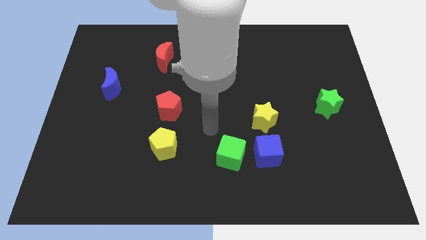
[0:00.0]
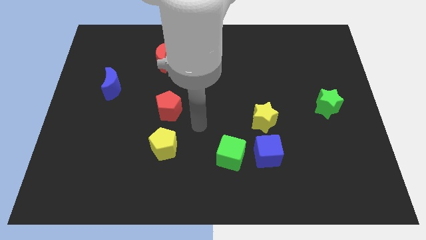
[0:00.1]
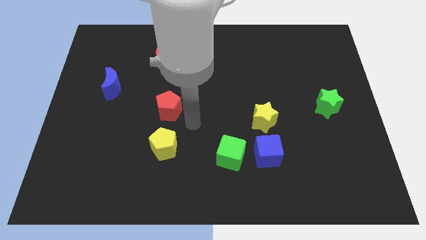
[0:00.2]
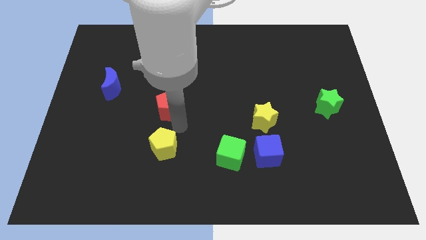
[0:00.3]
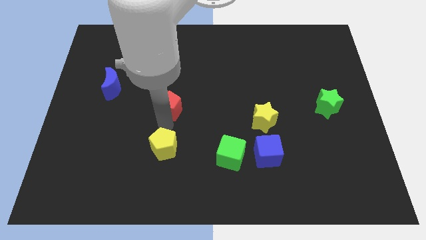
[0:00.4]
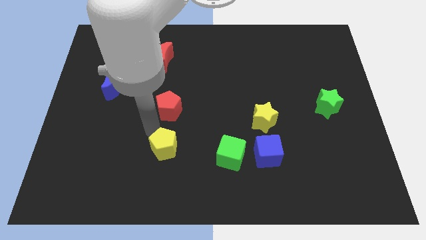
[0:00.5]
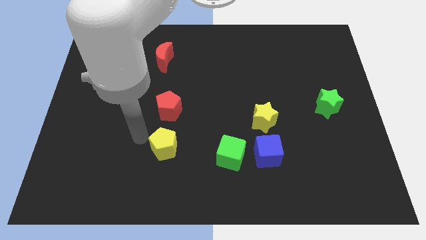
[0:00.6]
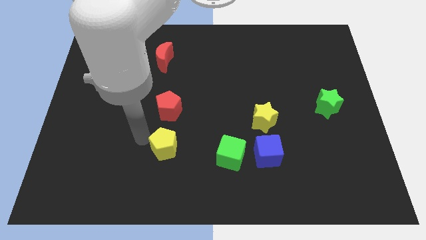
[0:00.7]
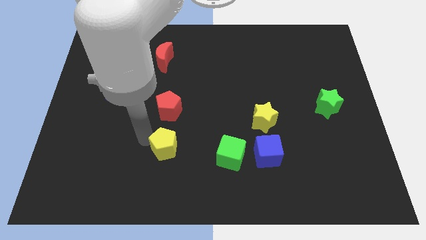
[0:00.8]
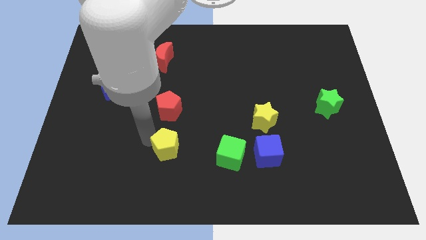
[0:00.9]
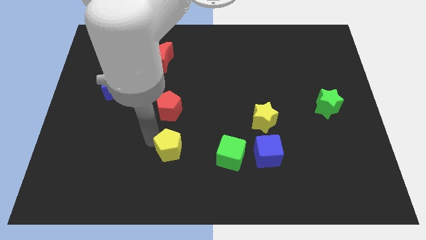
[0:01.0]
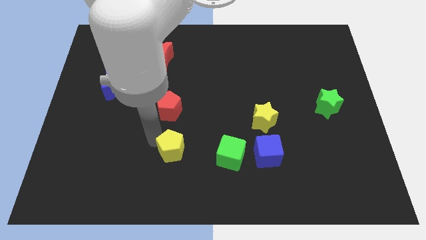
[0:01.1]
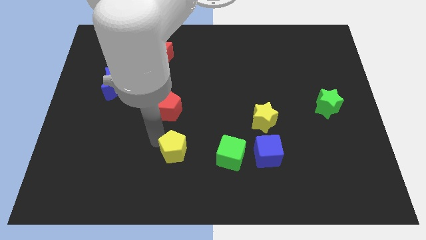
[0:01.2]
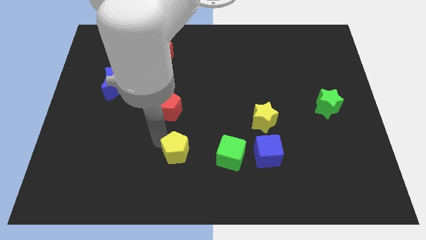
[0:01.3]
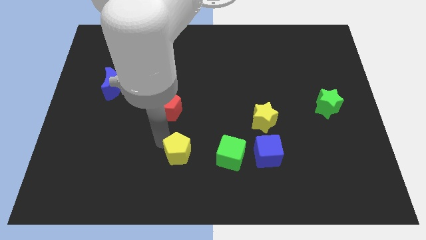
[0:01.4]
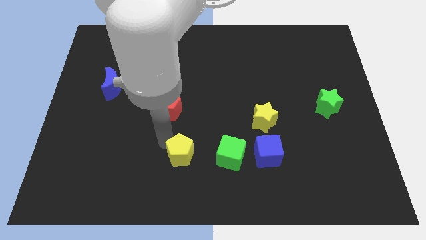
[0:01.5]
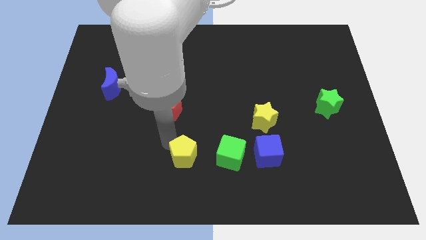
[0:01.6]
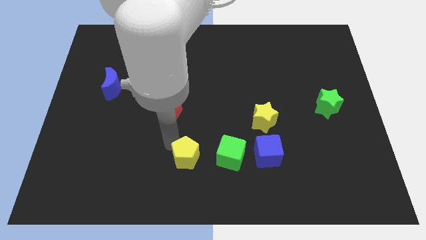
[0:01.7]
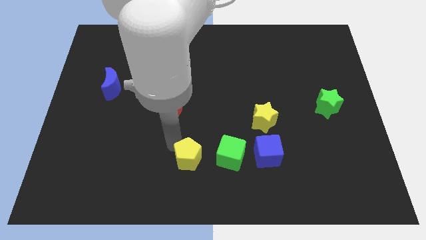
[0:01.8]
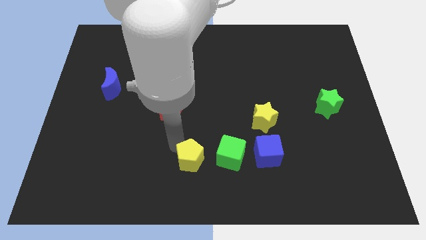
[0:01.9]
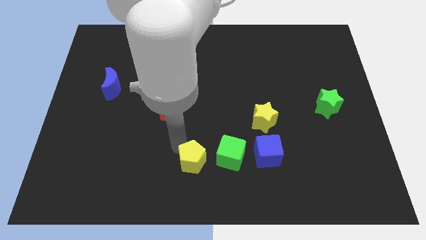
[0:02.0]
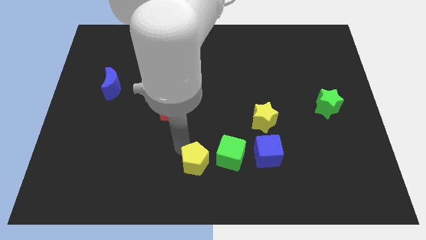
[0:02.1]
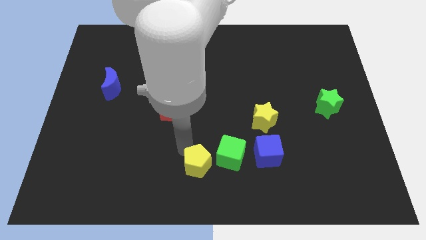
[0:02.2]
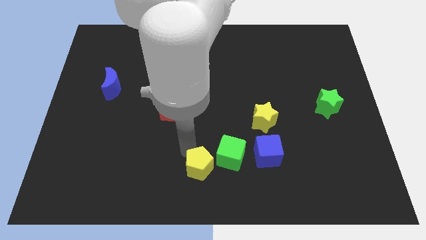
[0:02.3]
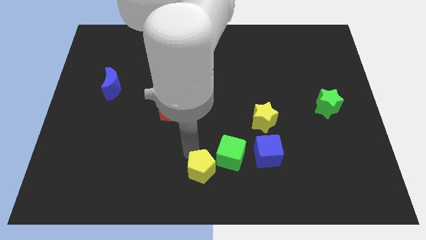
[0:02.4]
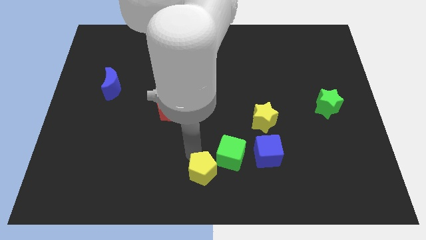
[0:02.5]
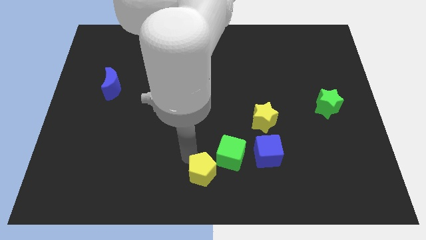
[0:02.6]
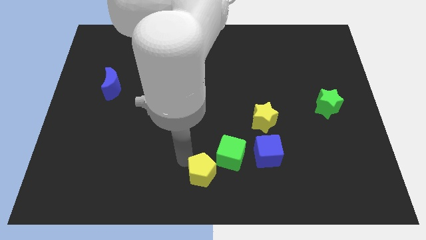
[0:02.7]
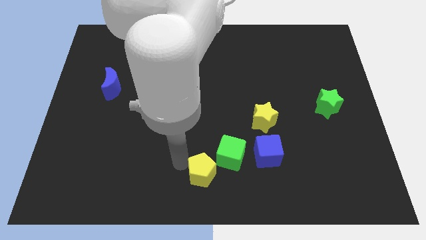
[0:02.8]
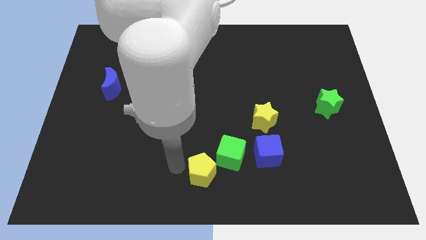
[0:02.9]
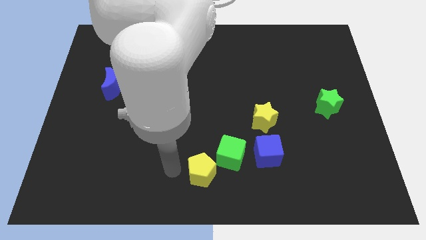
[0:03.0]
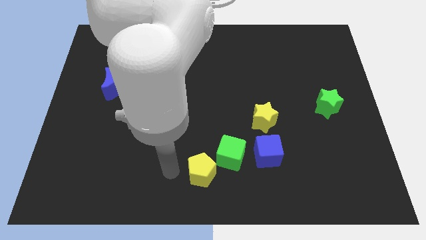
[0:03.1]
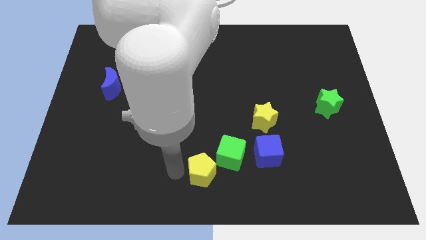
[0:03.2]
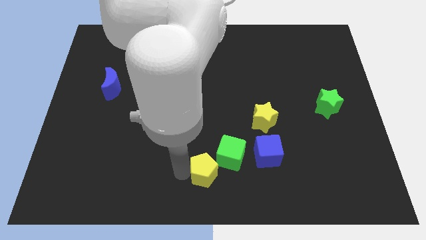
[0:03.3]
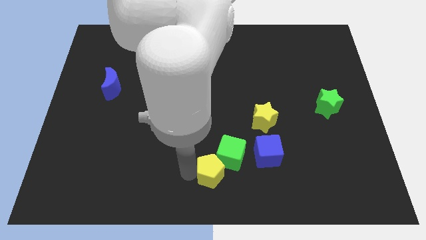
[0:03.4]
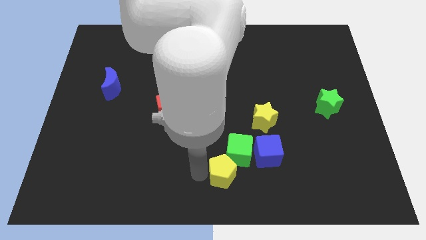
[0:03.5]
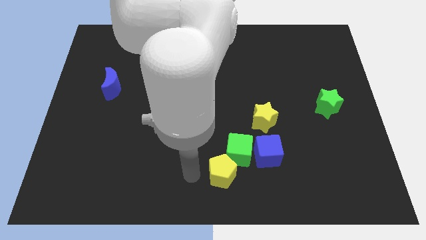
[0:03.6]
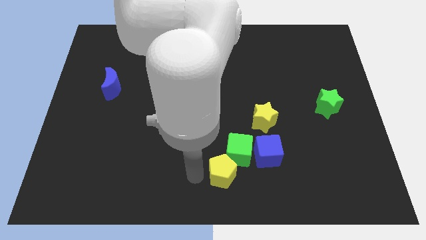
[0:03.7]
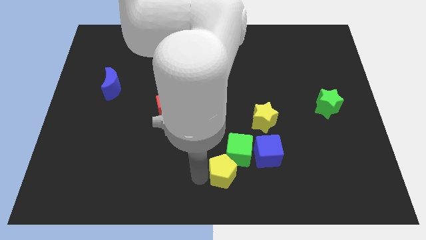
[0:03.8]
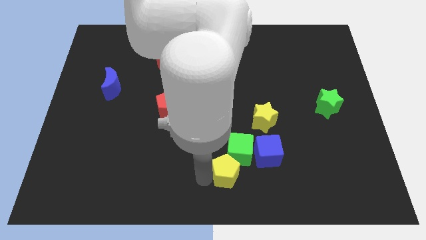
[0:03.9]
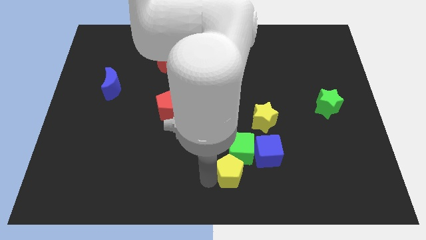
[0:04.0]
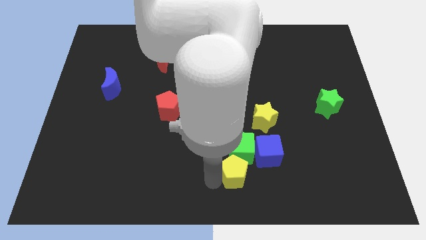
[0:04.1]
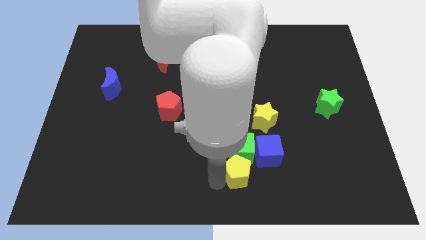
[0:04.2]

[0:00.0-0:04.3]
push the yellow pentagon diagonally down and to the right of the green cube

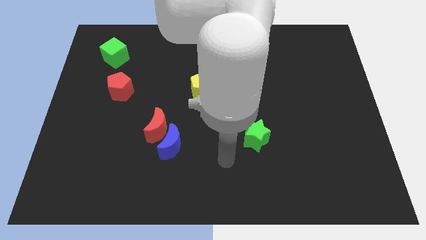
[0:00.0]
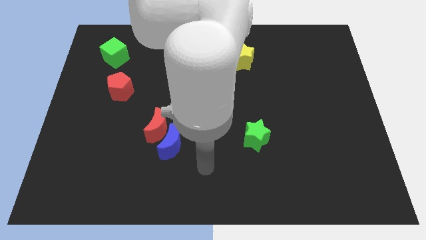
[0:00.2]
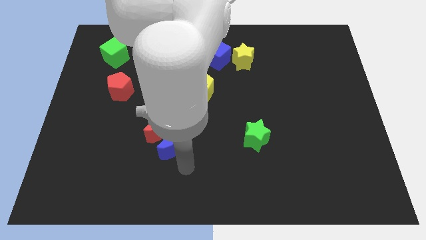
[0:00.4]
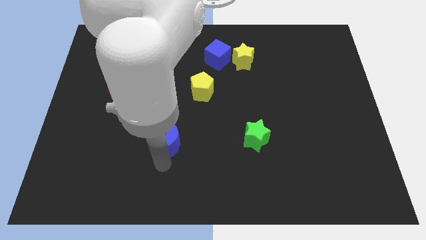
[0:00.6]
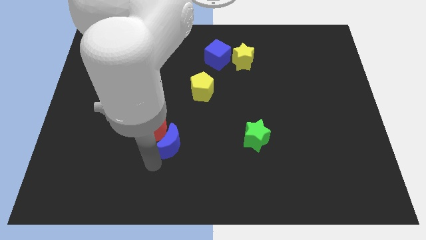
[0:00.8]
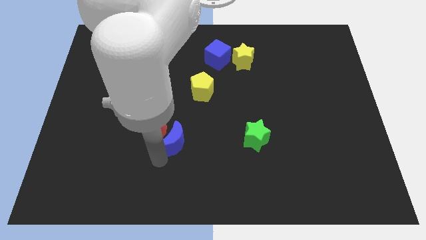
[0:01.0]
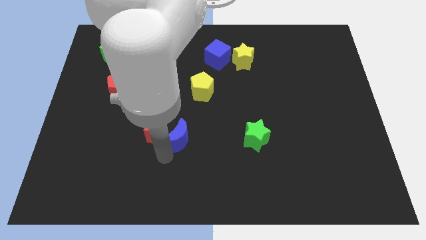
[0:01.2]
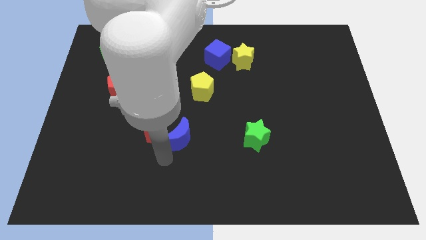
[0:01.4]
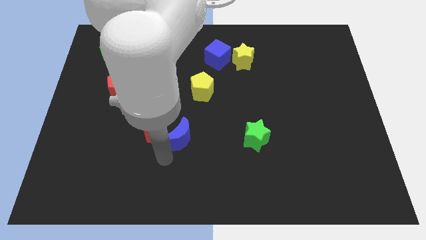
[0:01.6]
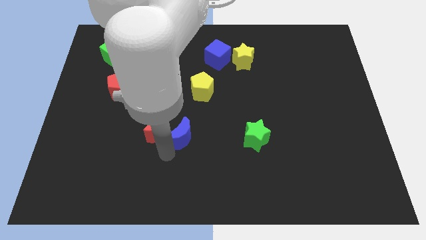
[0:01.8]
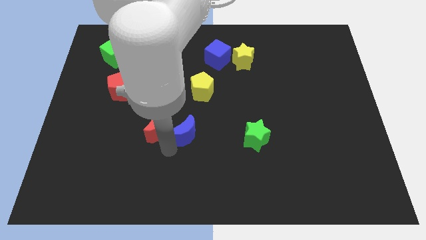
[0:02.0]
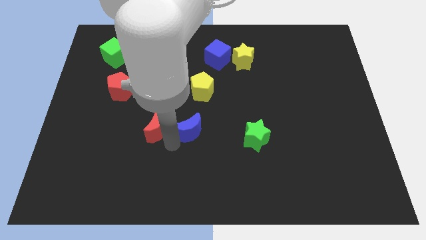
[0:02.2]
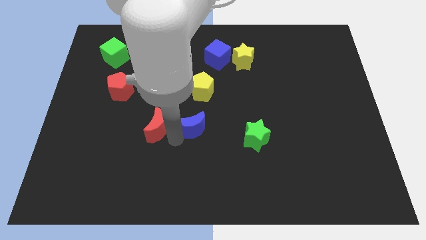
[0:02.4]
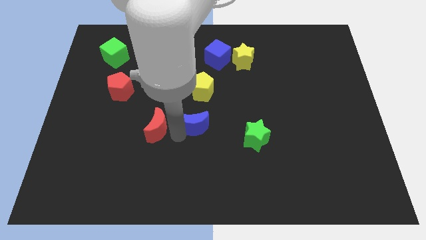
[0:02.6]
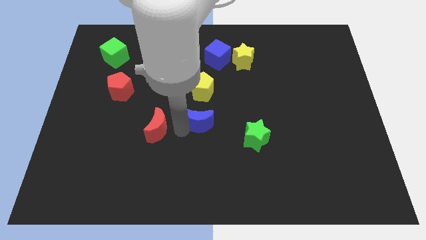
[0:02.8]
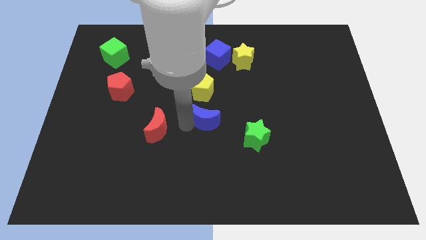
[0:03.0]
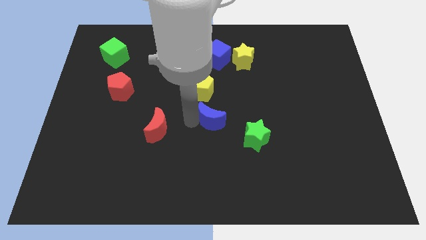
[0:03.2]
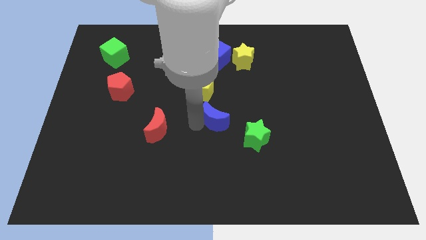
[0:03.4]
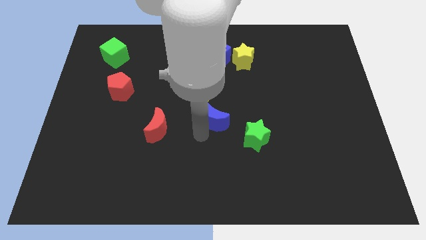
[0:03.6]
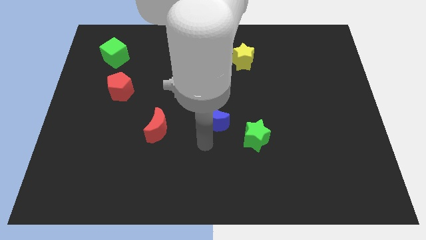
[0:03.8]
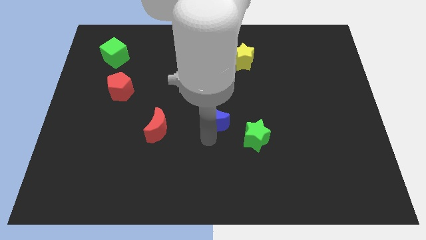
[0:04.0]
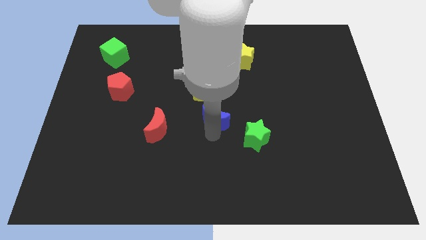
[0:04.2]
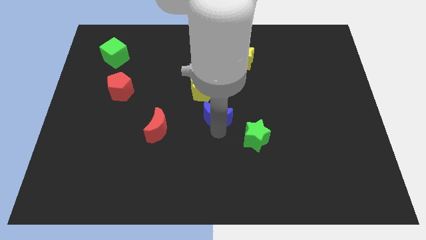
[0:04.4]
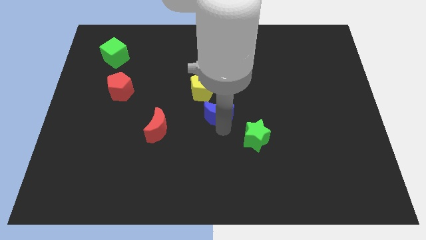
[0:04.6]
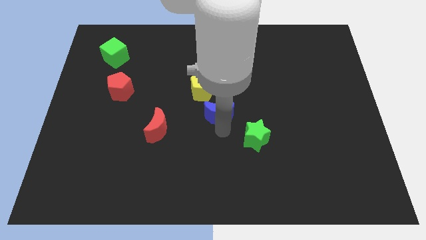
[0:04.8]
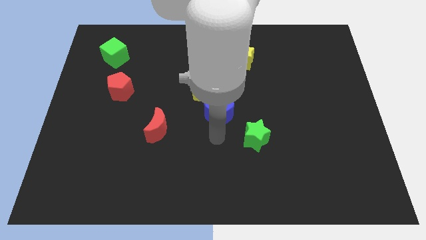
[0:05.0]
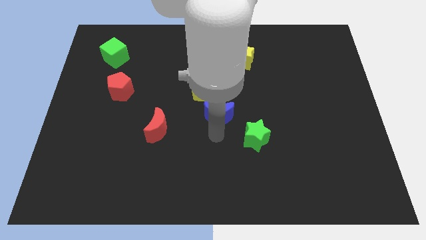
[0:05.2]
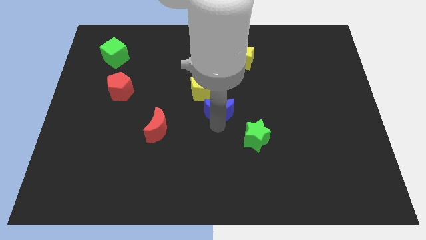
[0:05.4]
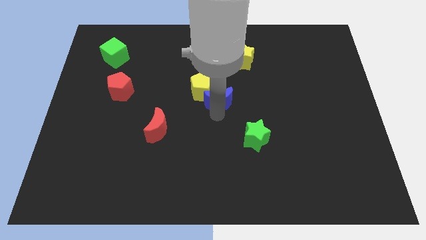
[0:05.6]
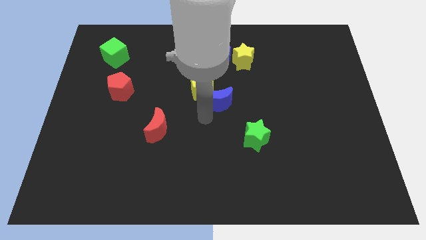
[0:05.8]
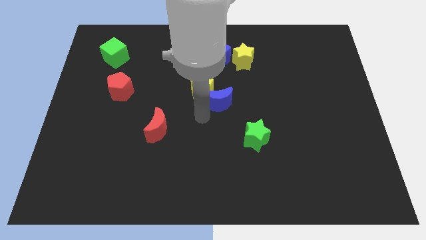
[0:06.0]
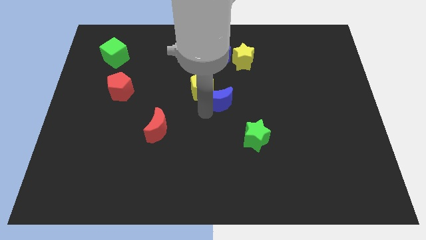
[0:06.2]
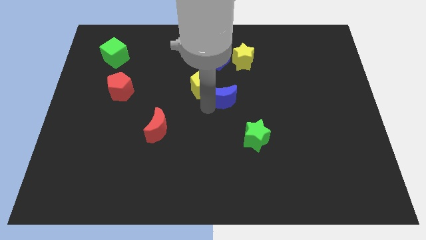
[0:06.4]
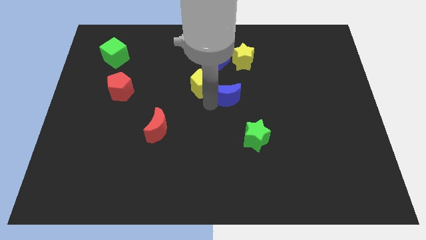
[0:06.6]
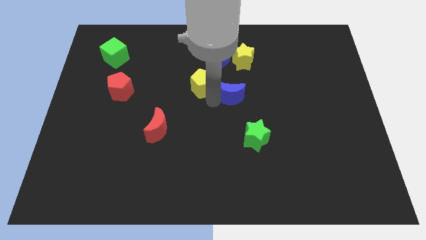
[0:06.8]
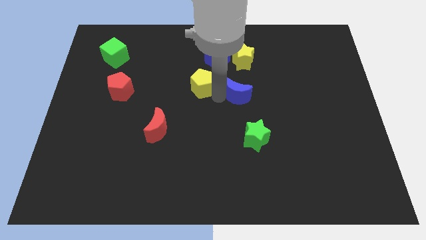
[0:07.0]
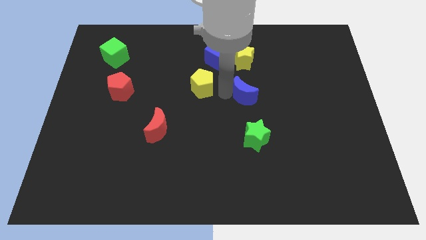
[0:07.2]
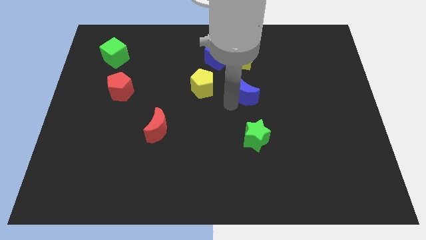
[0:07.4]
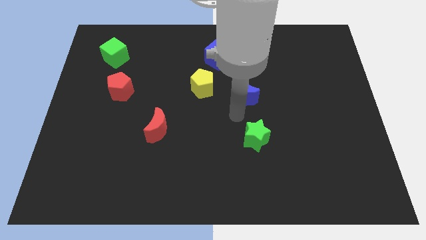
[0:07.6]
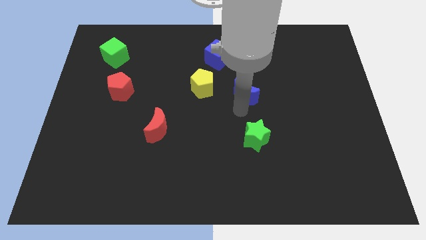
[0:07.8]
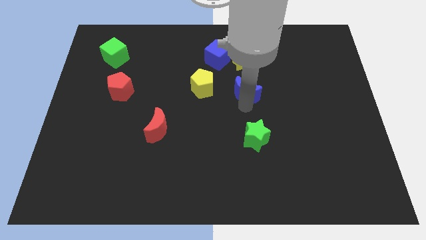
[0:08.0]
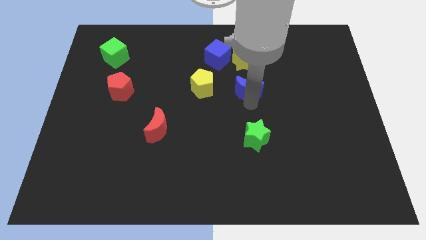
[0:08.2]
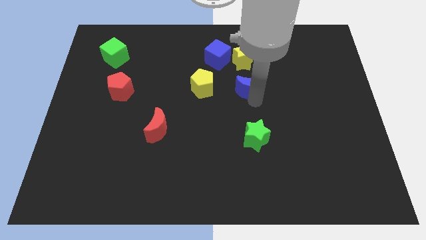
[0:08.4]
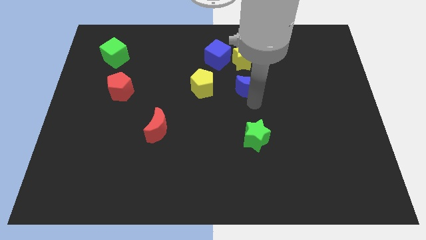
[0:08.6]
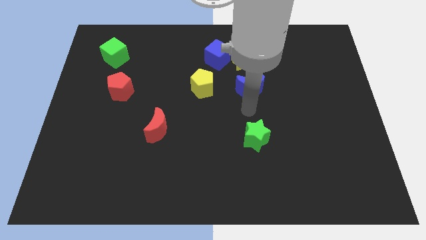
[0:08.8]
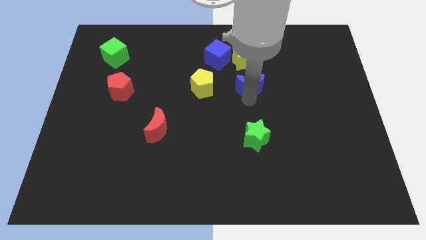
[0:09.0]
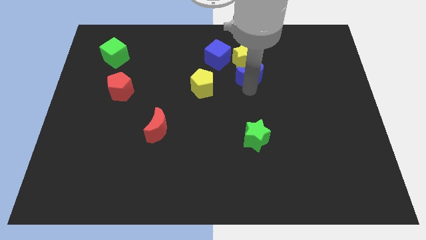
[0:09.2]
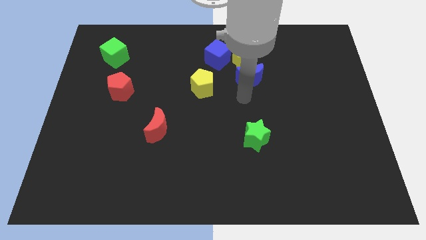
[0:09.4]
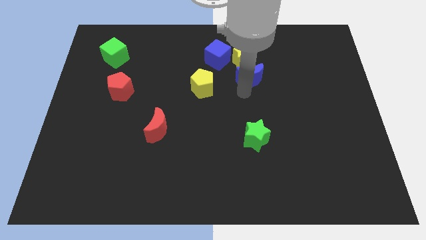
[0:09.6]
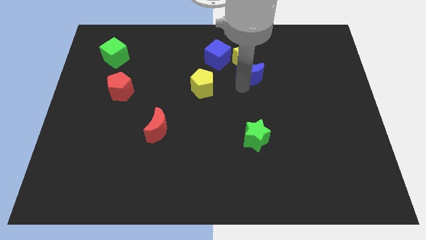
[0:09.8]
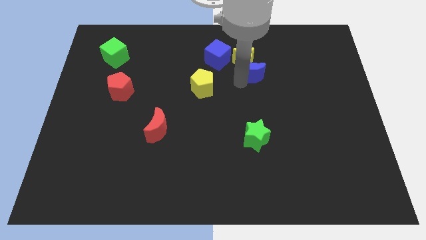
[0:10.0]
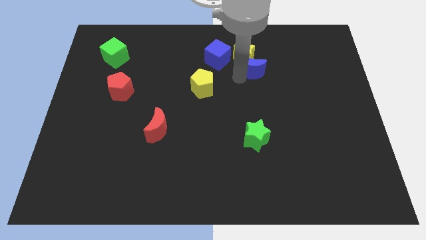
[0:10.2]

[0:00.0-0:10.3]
put the blue moon just right of the blue cube
